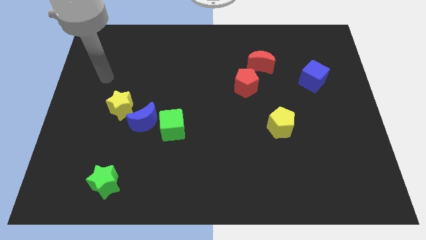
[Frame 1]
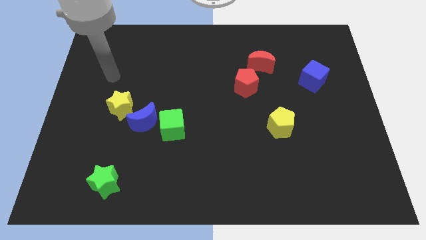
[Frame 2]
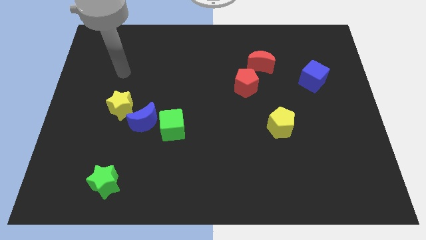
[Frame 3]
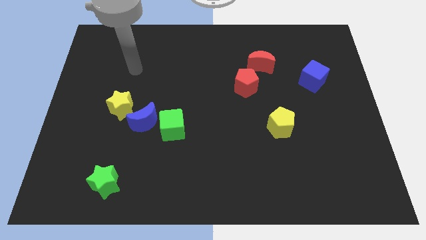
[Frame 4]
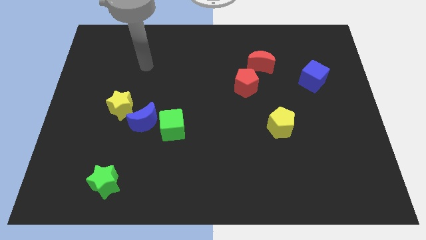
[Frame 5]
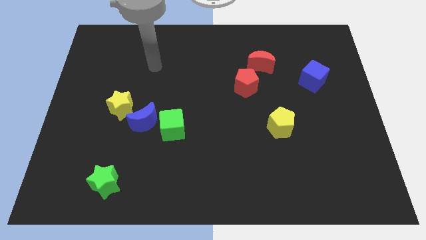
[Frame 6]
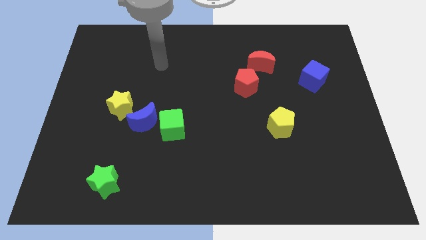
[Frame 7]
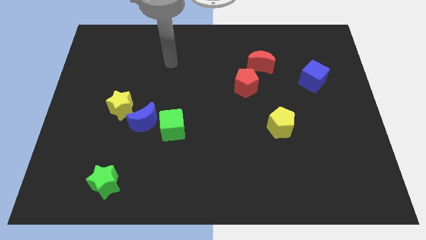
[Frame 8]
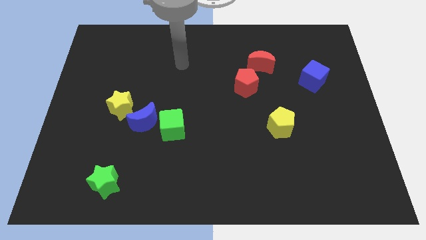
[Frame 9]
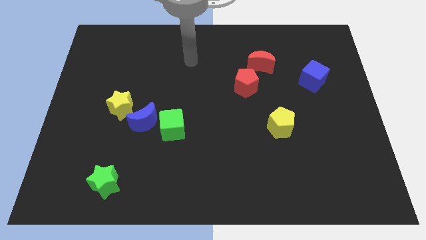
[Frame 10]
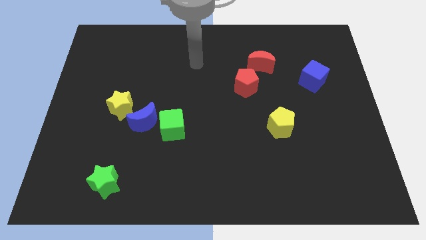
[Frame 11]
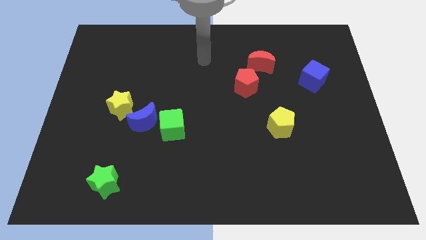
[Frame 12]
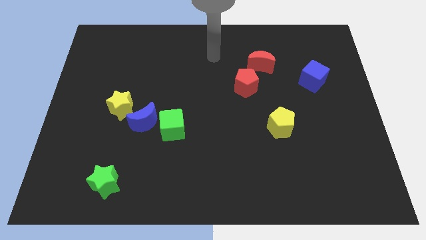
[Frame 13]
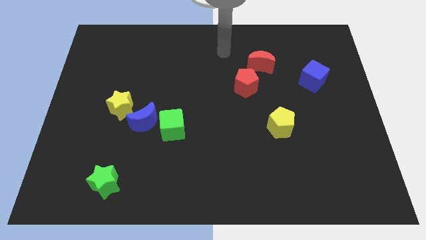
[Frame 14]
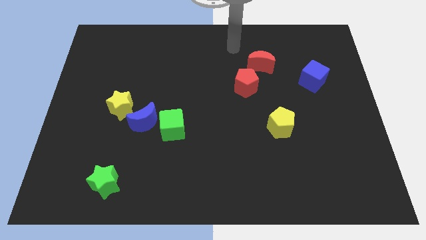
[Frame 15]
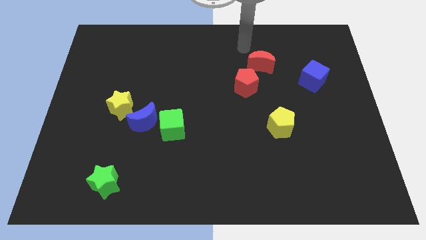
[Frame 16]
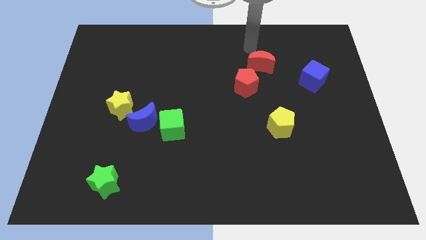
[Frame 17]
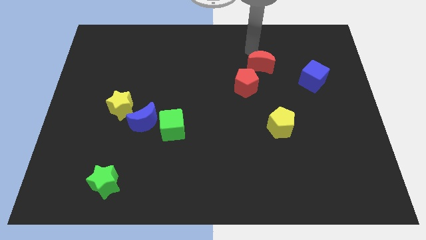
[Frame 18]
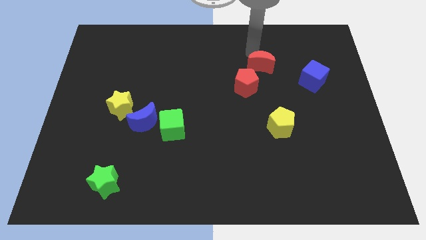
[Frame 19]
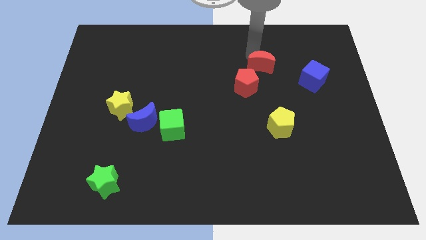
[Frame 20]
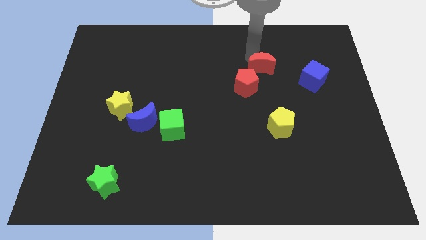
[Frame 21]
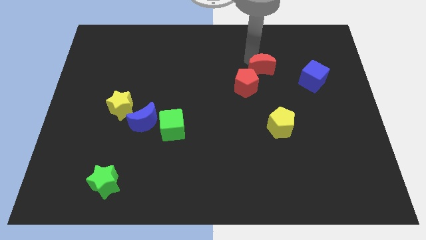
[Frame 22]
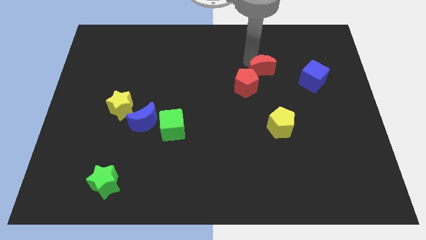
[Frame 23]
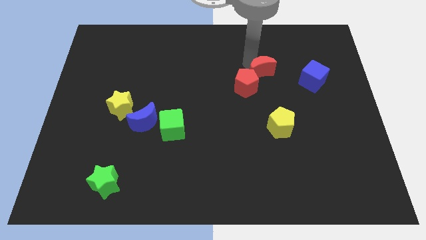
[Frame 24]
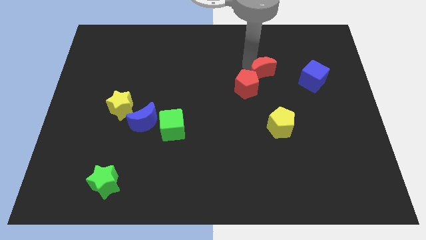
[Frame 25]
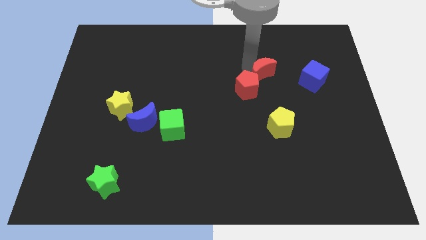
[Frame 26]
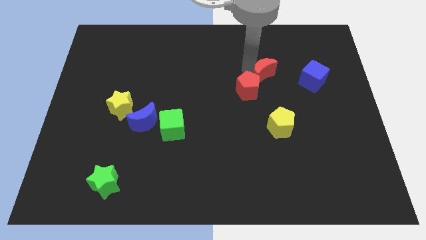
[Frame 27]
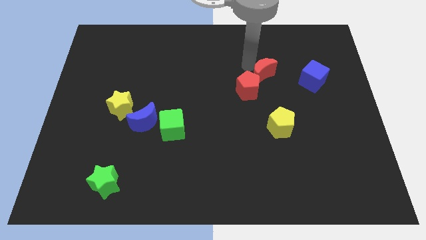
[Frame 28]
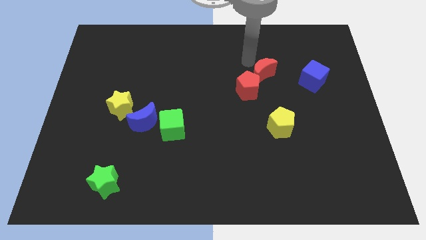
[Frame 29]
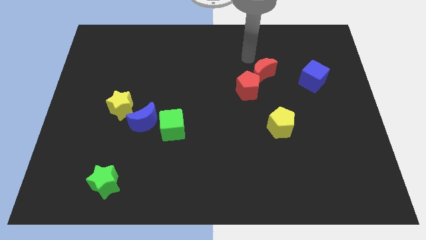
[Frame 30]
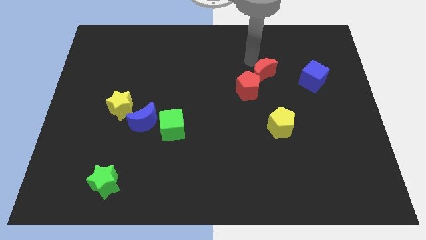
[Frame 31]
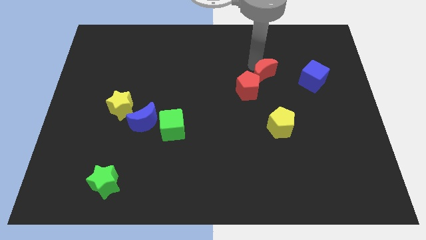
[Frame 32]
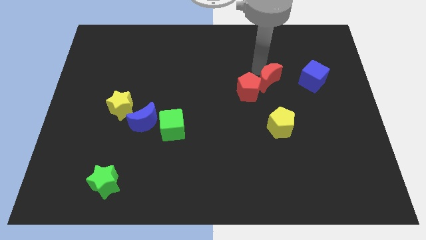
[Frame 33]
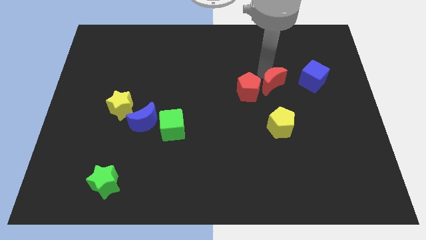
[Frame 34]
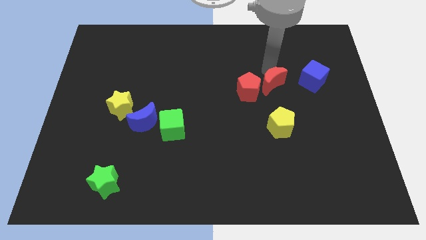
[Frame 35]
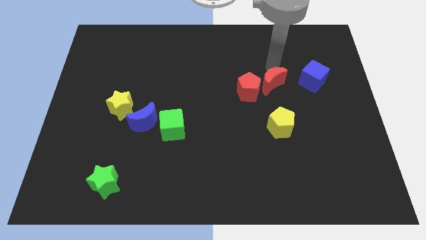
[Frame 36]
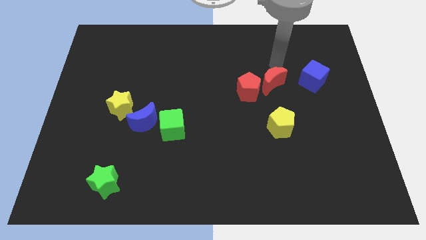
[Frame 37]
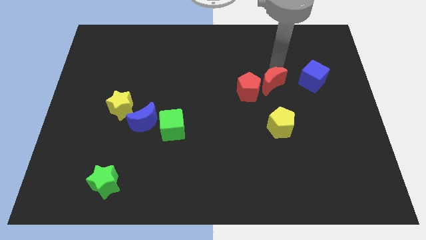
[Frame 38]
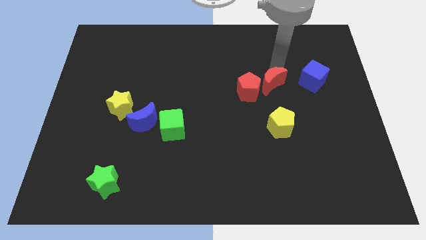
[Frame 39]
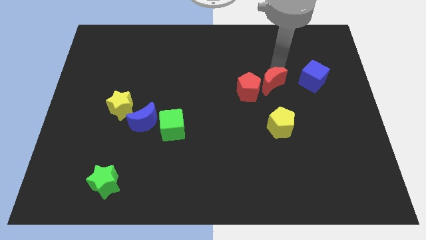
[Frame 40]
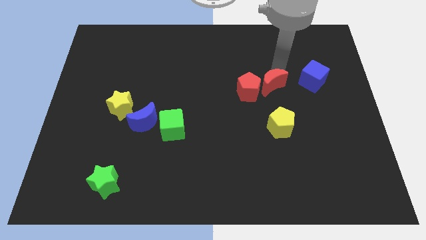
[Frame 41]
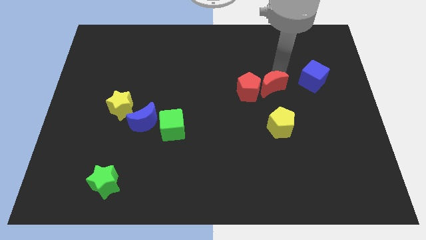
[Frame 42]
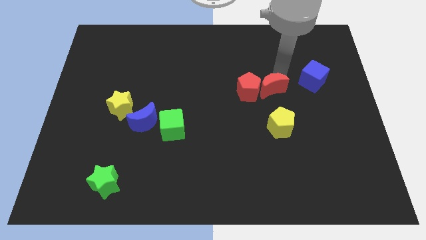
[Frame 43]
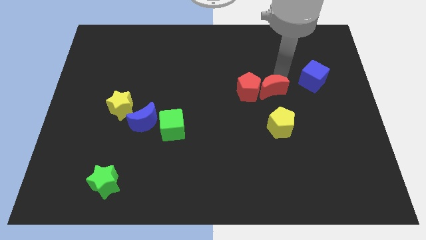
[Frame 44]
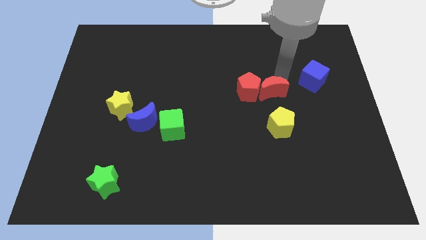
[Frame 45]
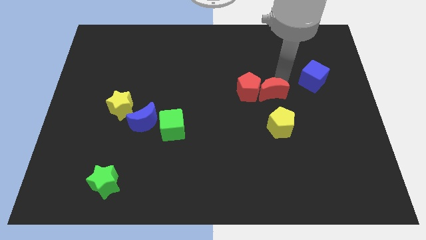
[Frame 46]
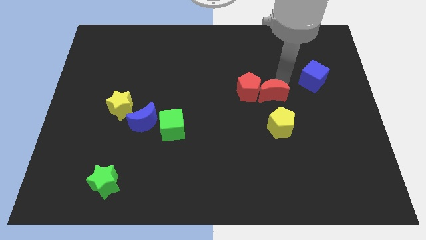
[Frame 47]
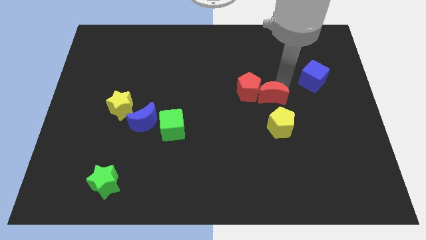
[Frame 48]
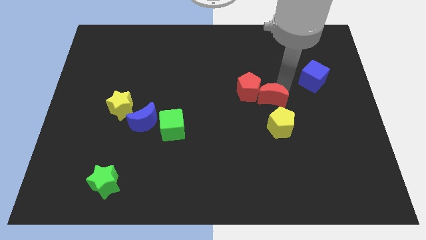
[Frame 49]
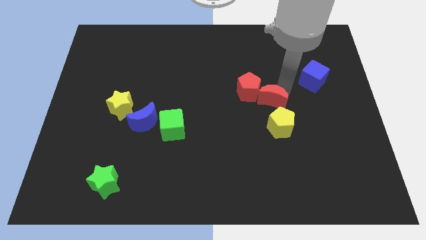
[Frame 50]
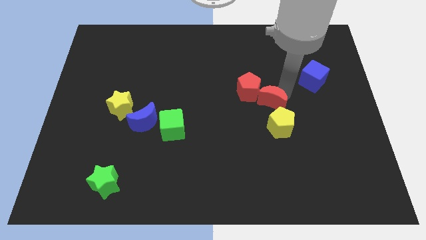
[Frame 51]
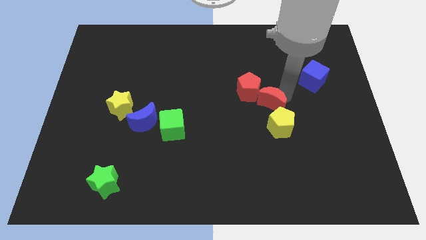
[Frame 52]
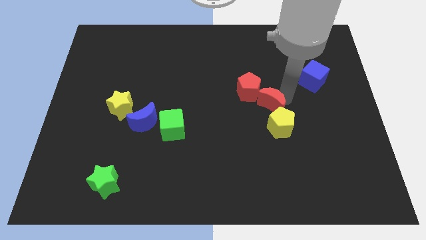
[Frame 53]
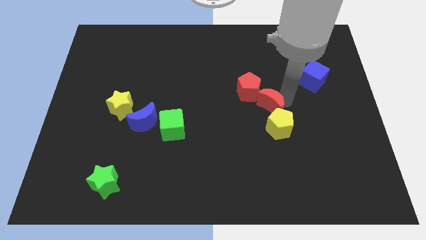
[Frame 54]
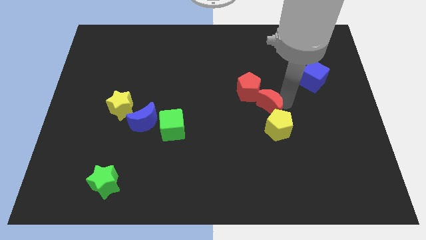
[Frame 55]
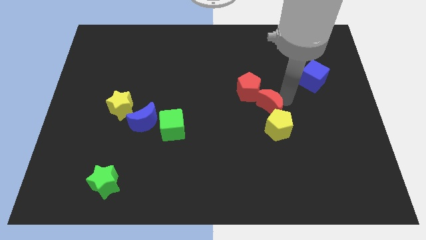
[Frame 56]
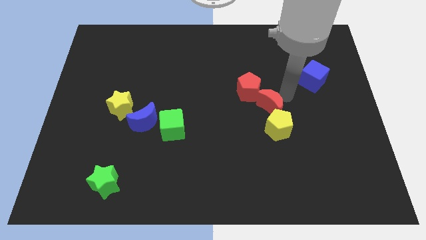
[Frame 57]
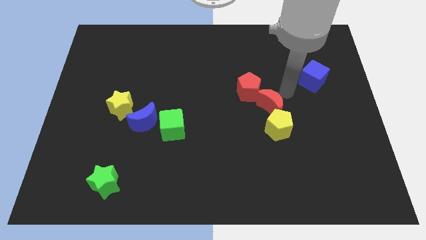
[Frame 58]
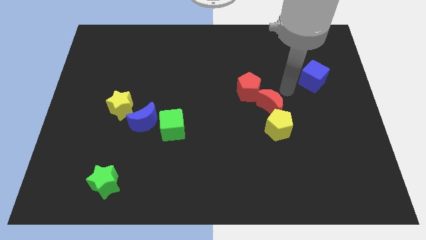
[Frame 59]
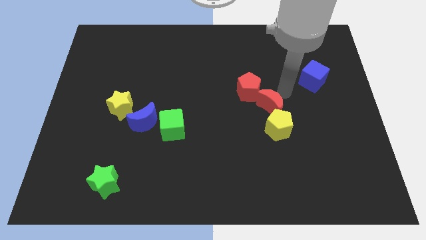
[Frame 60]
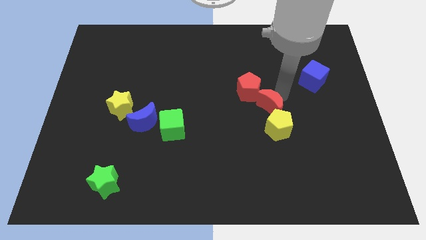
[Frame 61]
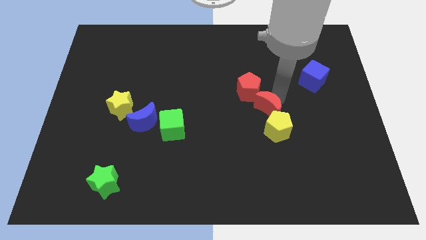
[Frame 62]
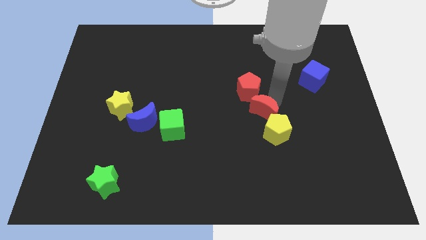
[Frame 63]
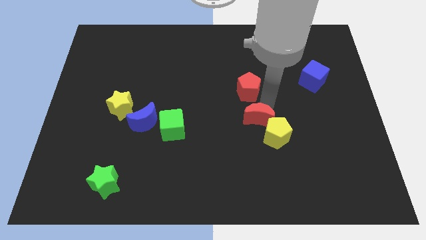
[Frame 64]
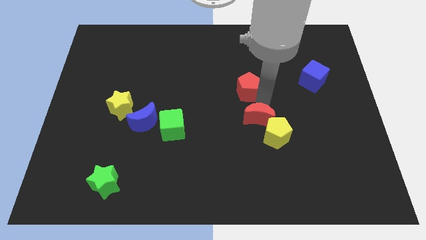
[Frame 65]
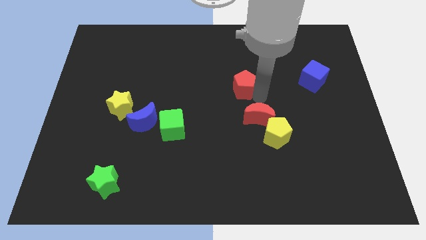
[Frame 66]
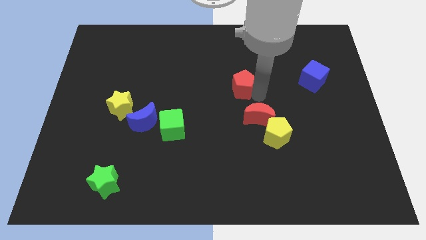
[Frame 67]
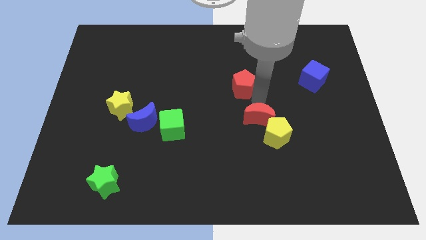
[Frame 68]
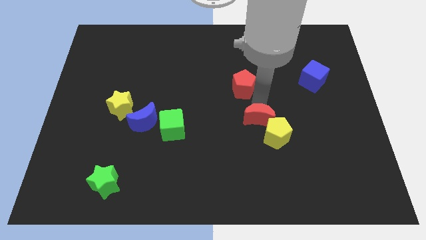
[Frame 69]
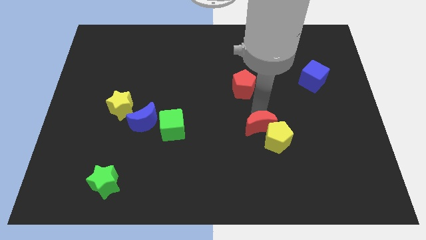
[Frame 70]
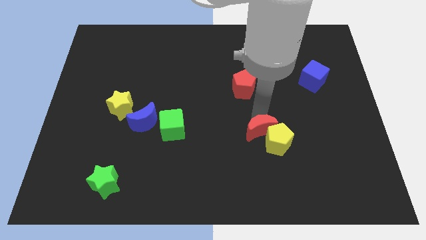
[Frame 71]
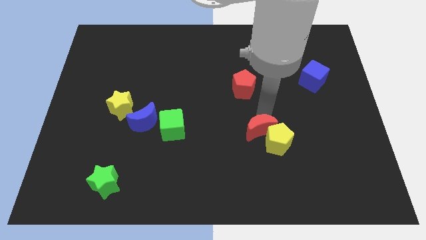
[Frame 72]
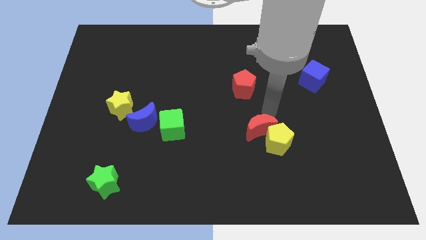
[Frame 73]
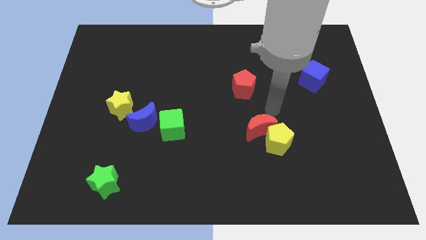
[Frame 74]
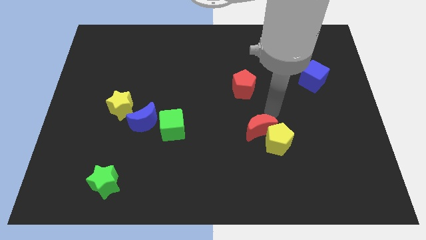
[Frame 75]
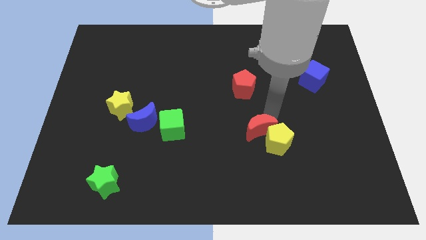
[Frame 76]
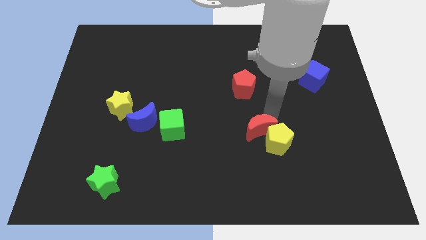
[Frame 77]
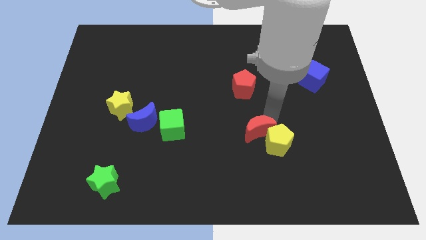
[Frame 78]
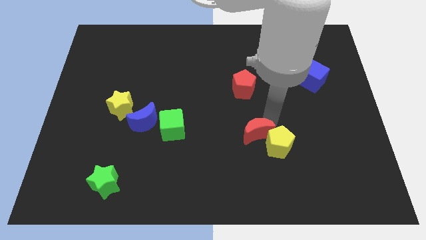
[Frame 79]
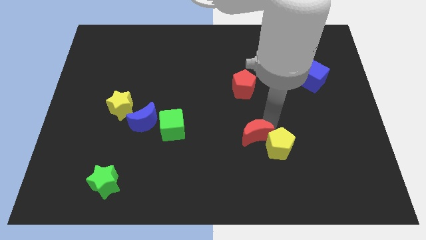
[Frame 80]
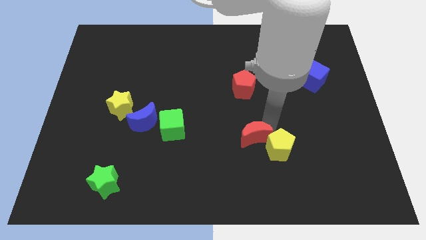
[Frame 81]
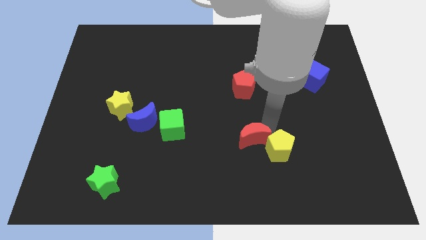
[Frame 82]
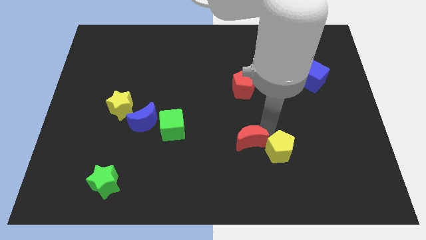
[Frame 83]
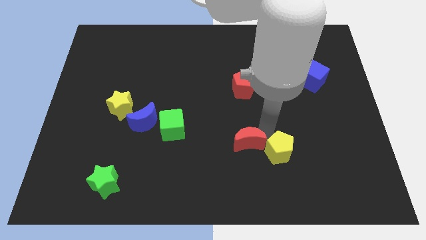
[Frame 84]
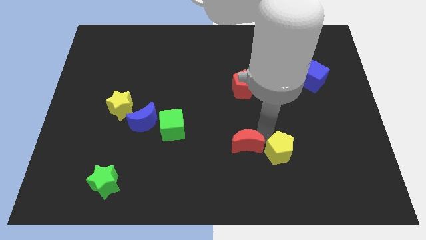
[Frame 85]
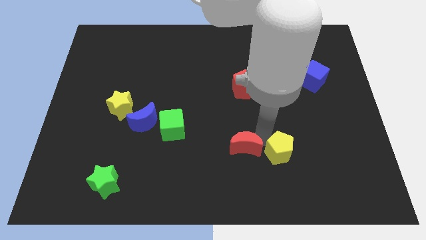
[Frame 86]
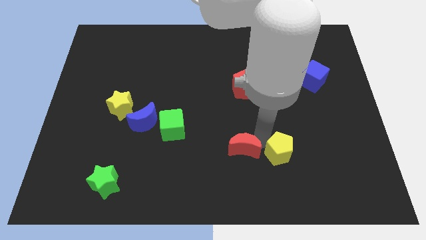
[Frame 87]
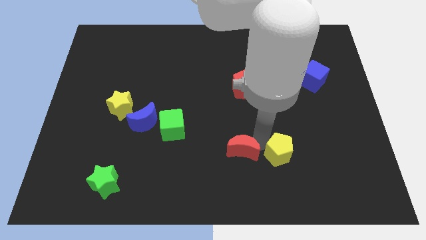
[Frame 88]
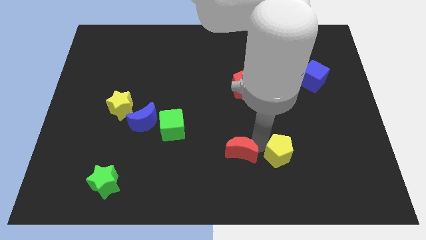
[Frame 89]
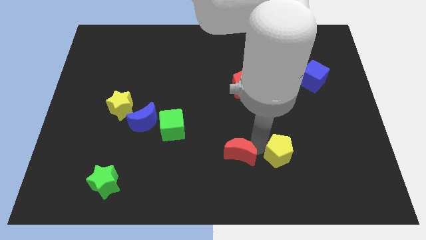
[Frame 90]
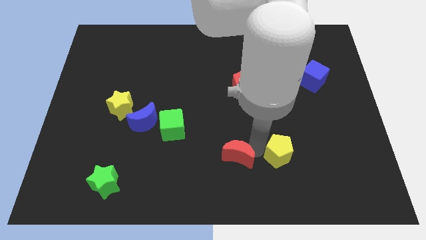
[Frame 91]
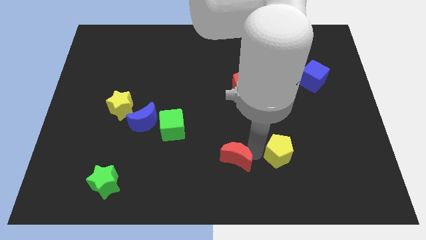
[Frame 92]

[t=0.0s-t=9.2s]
slide the red moon to the bottom
